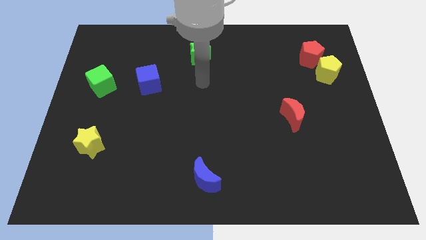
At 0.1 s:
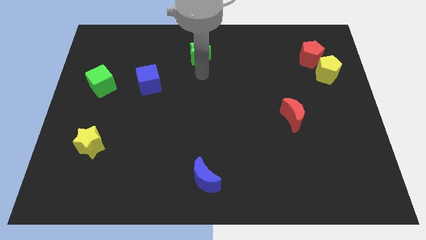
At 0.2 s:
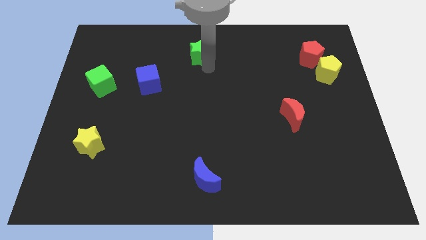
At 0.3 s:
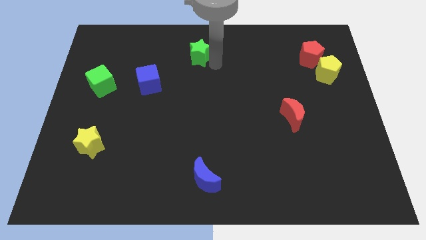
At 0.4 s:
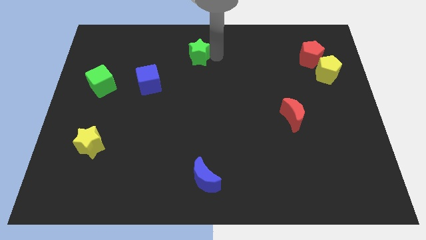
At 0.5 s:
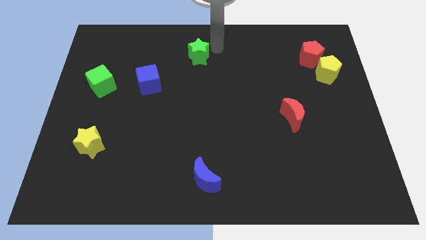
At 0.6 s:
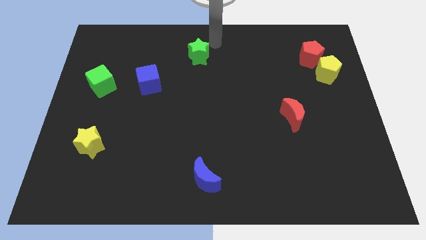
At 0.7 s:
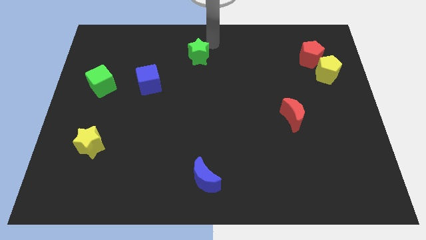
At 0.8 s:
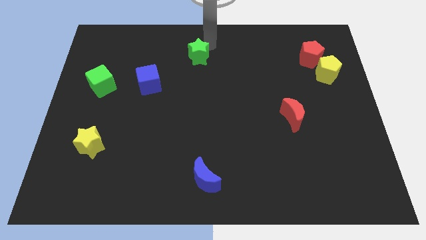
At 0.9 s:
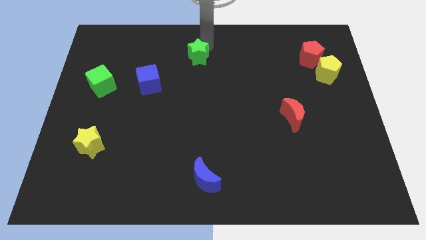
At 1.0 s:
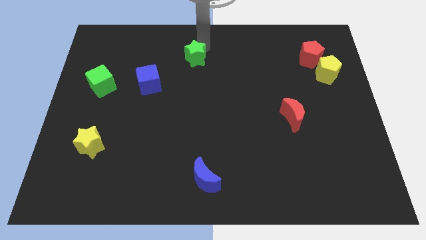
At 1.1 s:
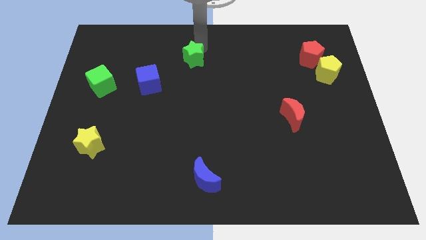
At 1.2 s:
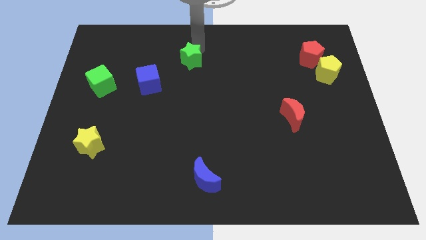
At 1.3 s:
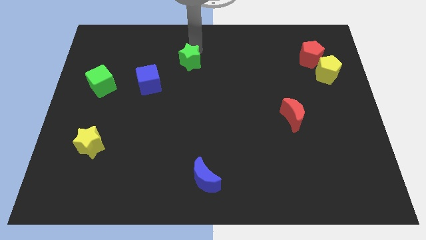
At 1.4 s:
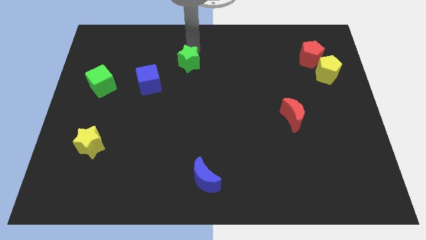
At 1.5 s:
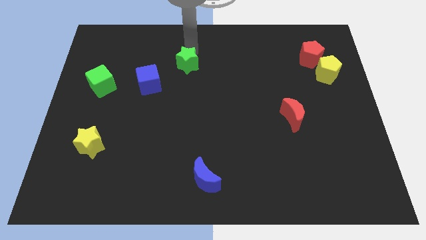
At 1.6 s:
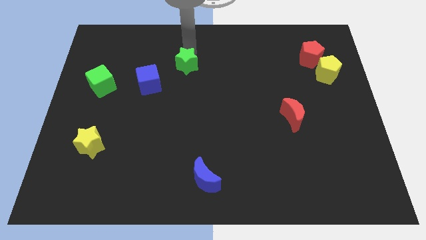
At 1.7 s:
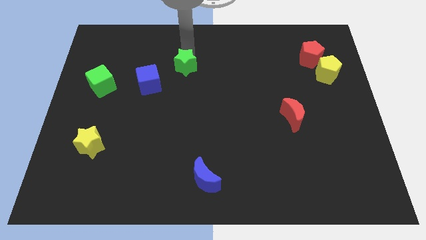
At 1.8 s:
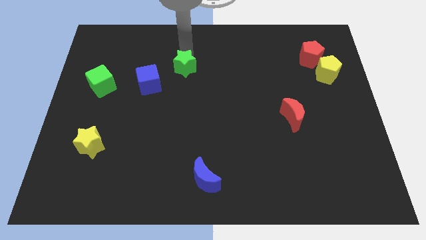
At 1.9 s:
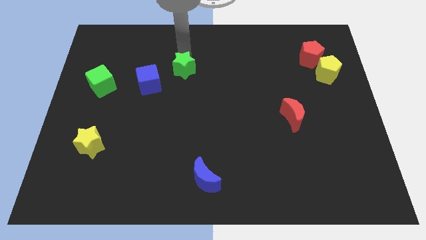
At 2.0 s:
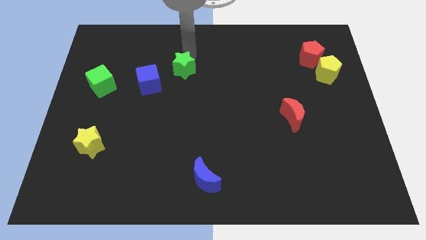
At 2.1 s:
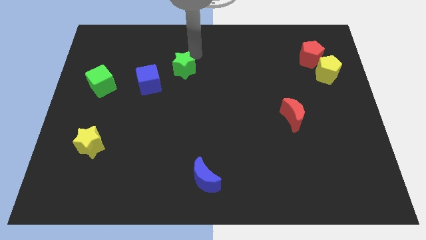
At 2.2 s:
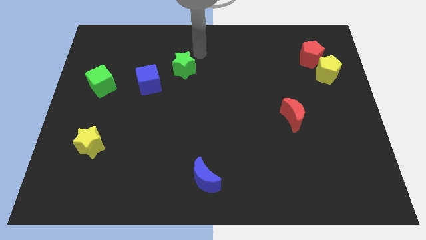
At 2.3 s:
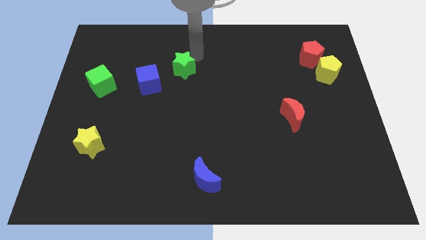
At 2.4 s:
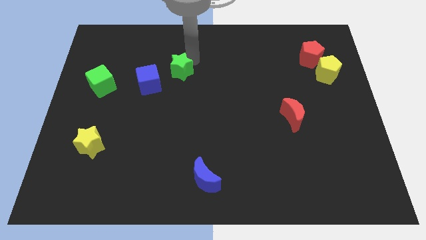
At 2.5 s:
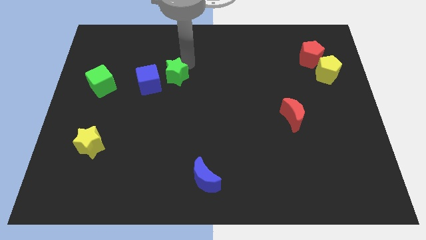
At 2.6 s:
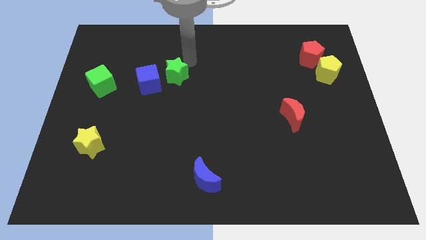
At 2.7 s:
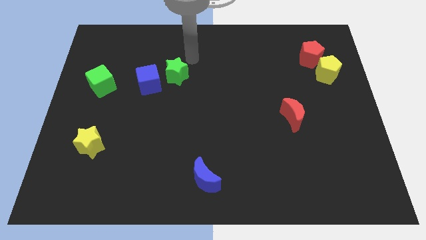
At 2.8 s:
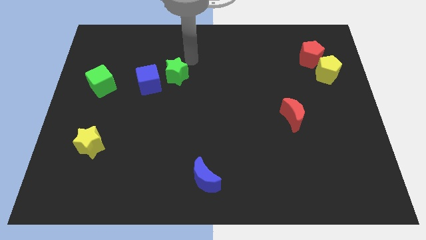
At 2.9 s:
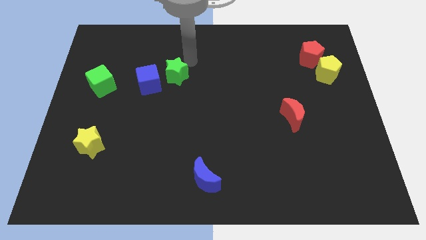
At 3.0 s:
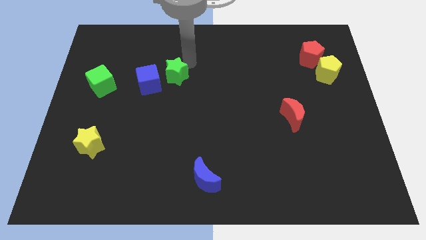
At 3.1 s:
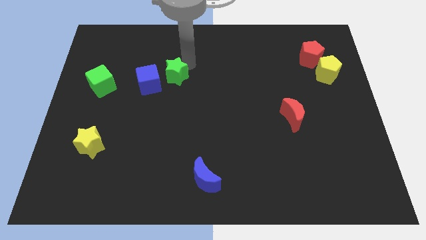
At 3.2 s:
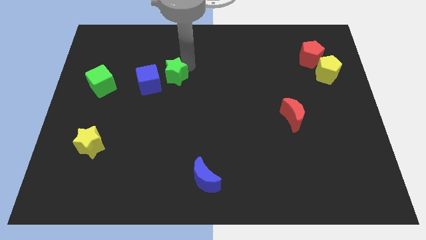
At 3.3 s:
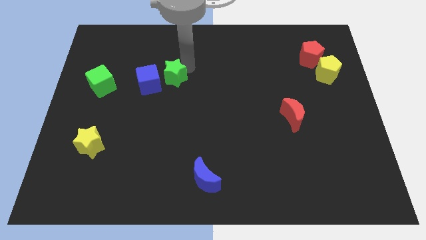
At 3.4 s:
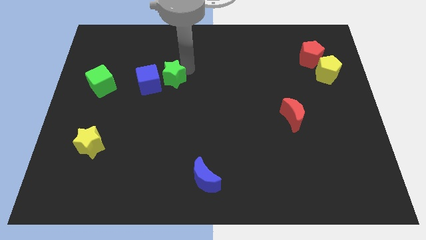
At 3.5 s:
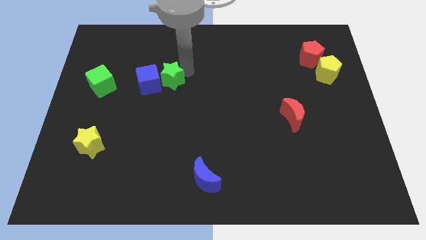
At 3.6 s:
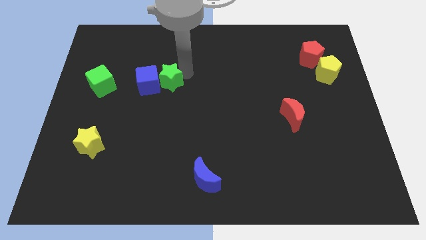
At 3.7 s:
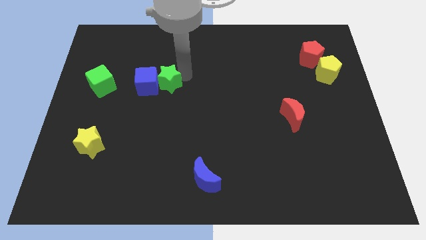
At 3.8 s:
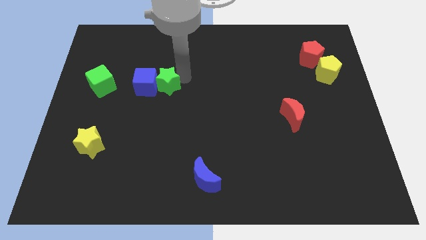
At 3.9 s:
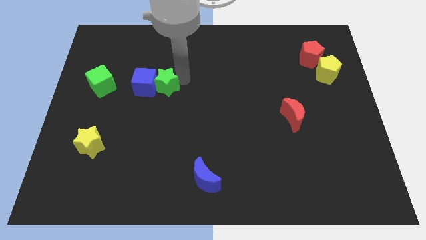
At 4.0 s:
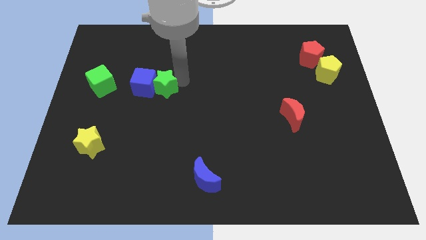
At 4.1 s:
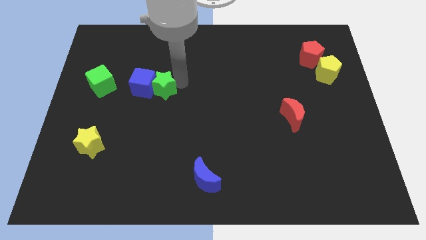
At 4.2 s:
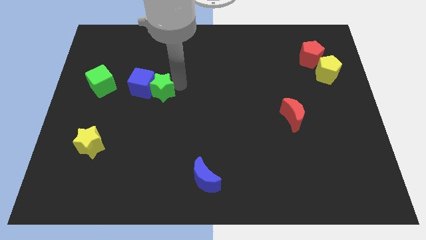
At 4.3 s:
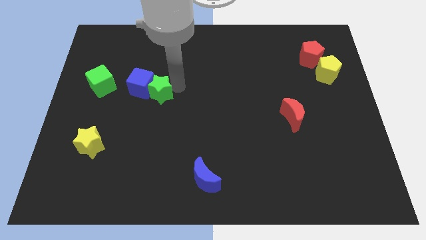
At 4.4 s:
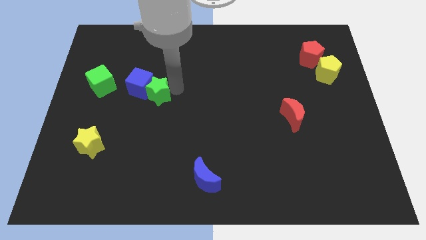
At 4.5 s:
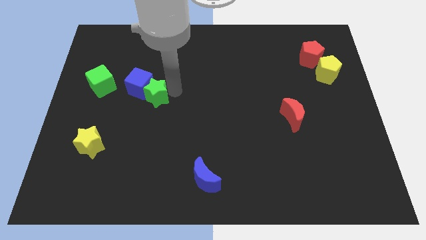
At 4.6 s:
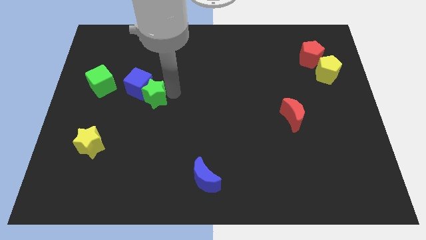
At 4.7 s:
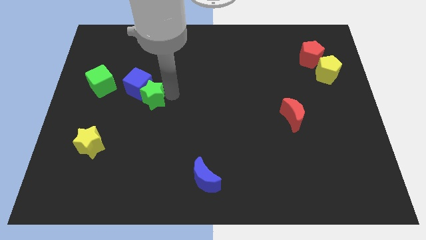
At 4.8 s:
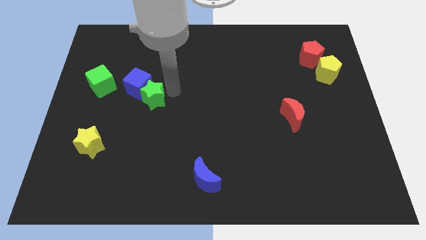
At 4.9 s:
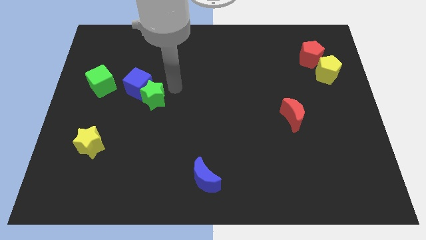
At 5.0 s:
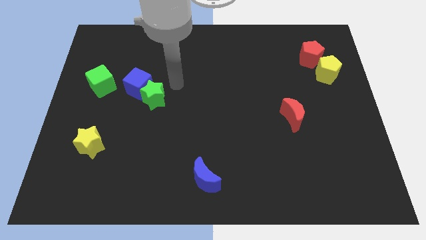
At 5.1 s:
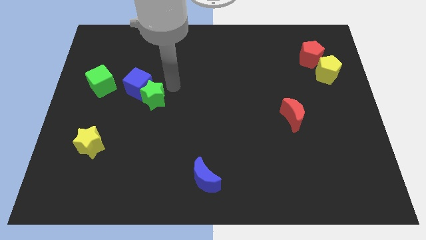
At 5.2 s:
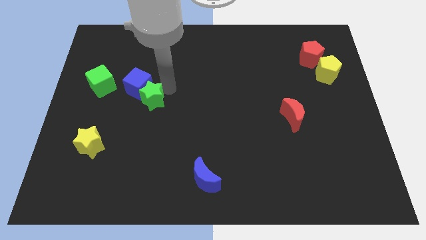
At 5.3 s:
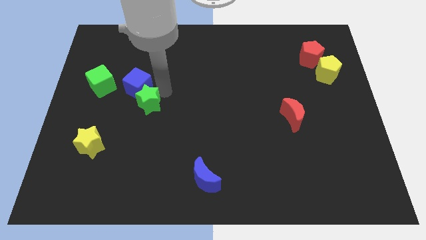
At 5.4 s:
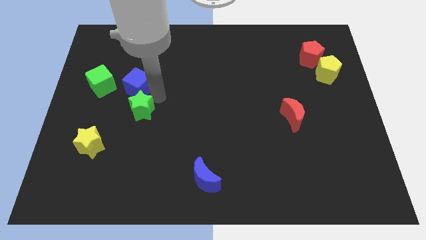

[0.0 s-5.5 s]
slide the green star downwards and to the left diagonally

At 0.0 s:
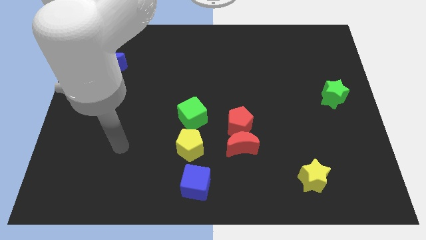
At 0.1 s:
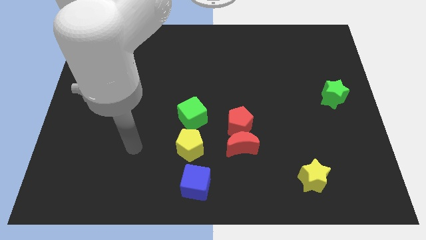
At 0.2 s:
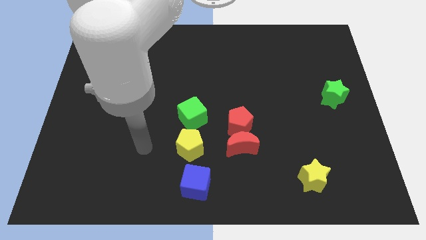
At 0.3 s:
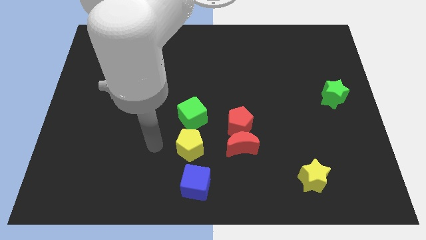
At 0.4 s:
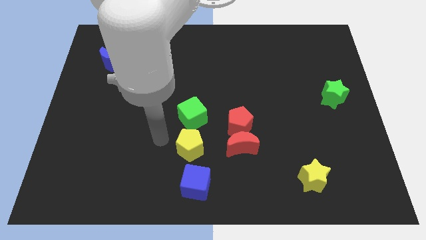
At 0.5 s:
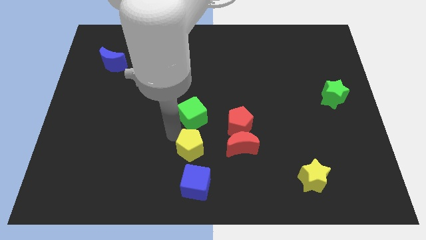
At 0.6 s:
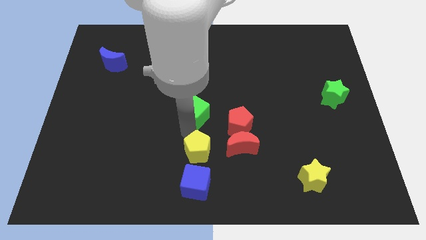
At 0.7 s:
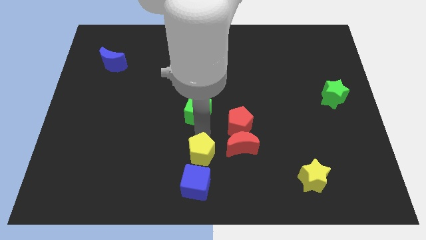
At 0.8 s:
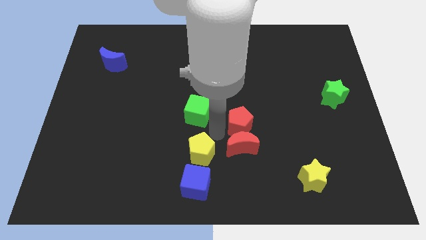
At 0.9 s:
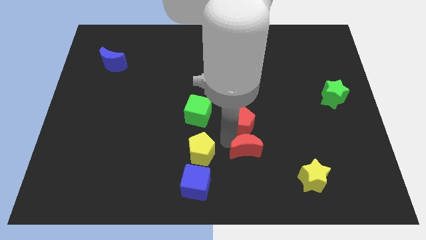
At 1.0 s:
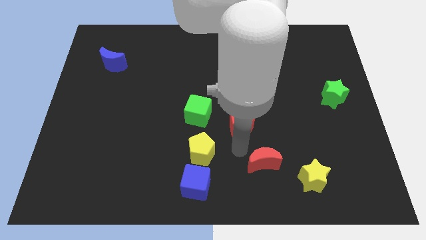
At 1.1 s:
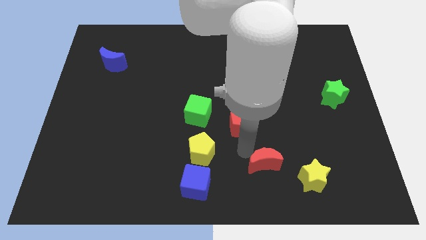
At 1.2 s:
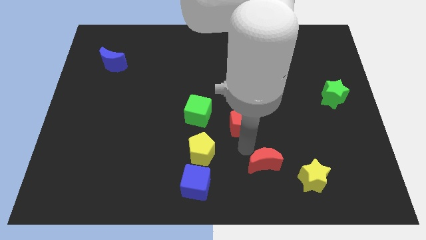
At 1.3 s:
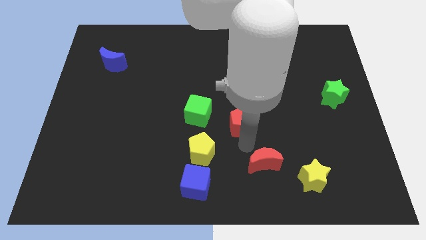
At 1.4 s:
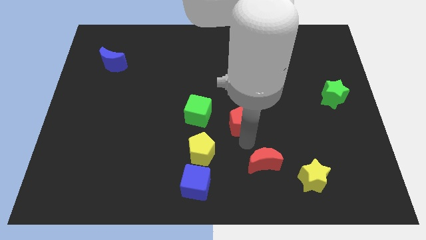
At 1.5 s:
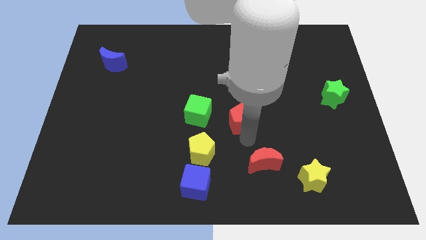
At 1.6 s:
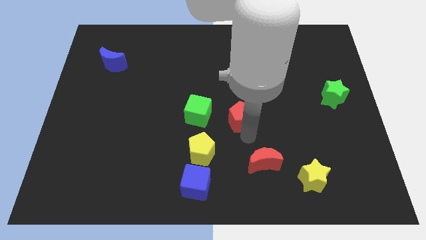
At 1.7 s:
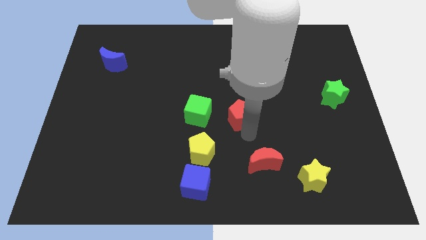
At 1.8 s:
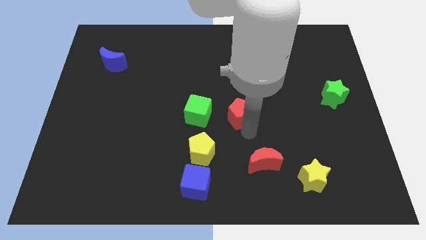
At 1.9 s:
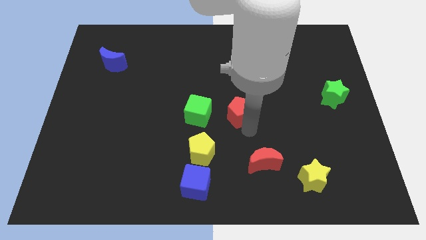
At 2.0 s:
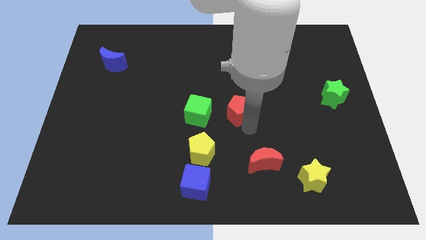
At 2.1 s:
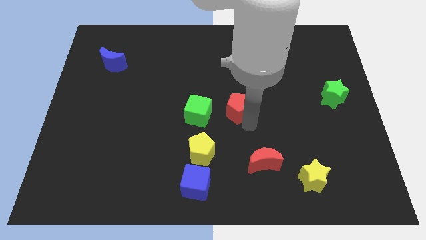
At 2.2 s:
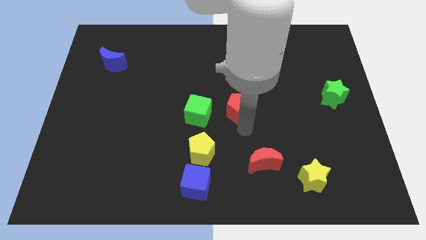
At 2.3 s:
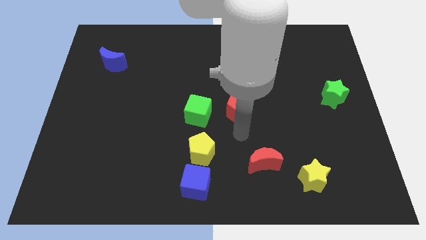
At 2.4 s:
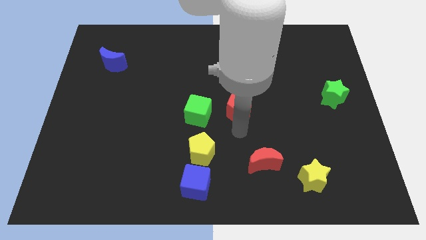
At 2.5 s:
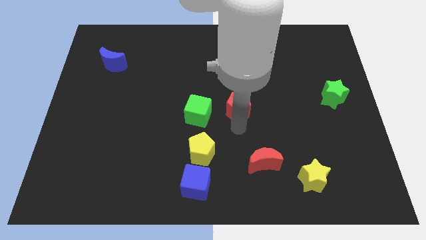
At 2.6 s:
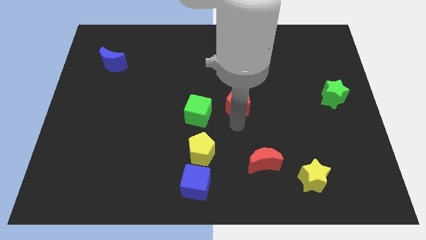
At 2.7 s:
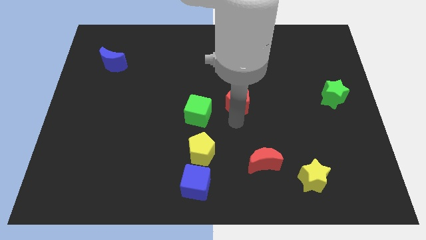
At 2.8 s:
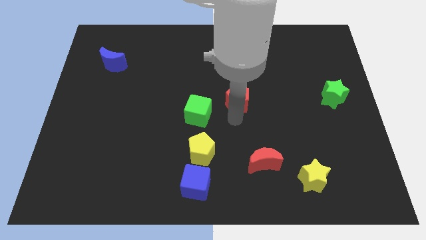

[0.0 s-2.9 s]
slightly move the red pentagon upwards
